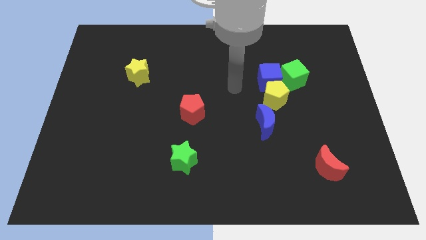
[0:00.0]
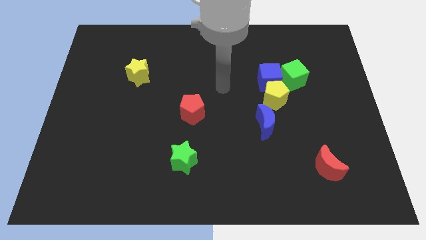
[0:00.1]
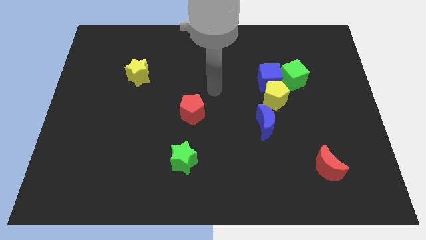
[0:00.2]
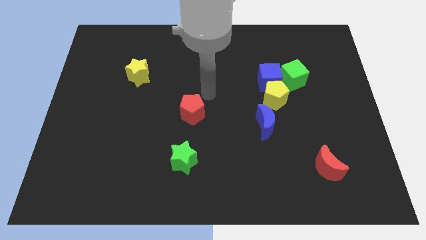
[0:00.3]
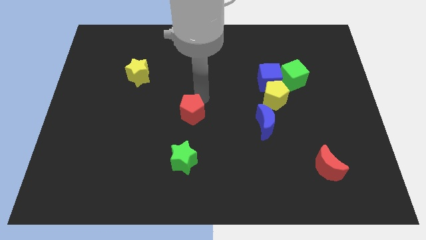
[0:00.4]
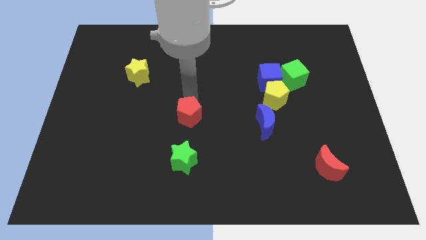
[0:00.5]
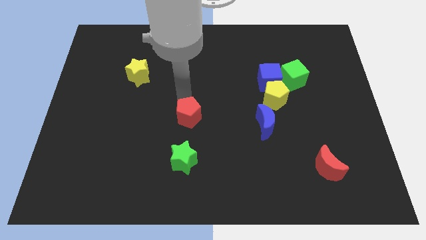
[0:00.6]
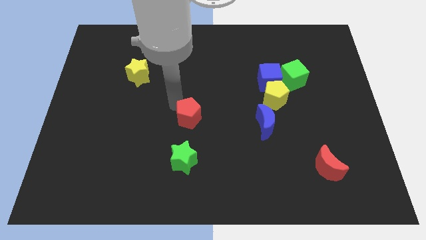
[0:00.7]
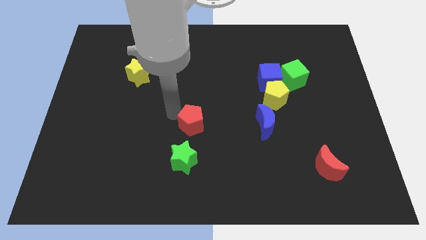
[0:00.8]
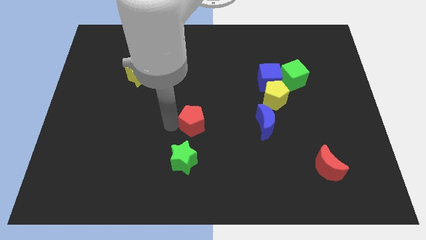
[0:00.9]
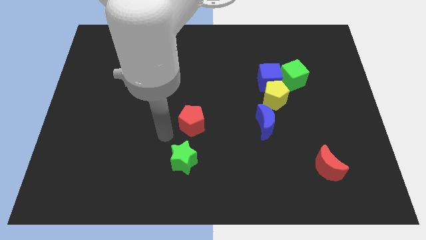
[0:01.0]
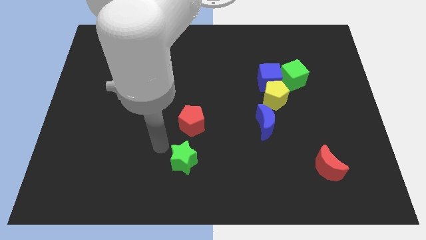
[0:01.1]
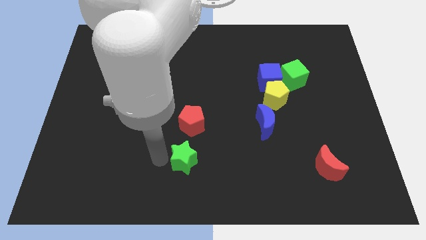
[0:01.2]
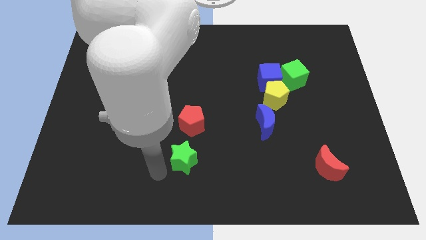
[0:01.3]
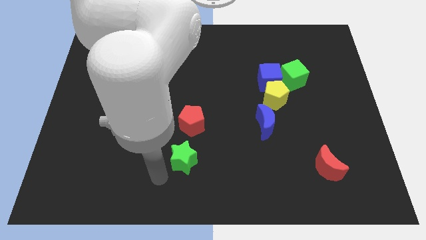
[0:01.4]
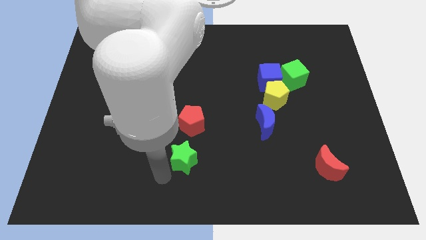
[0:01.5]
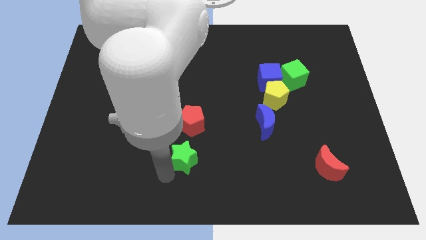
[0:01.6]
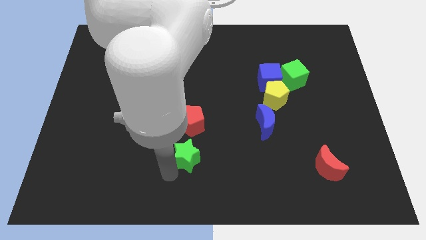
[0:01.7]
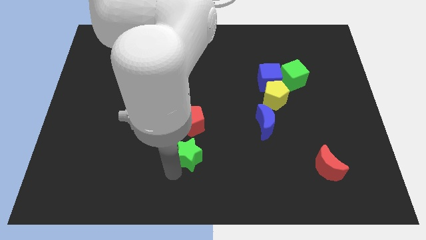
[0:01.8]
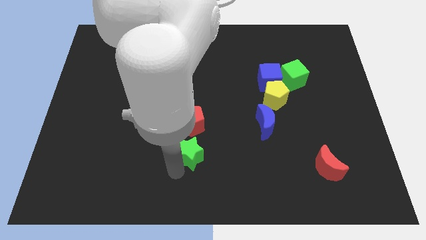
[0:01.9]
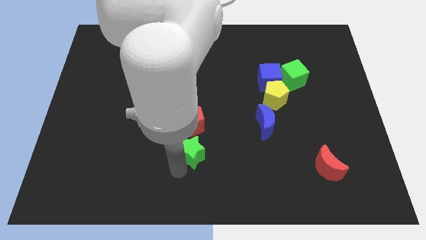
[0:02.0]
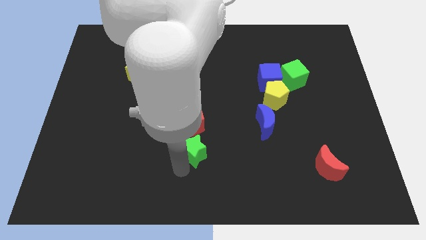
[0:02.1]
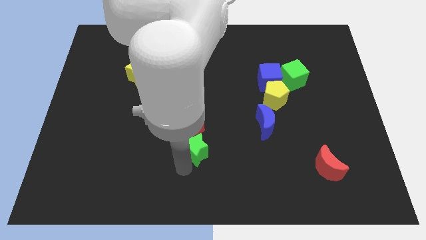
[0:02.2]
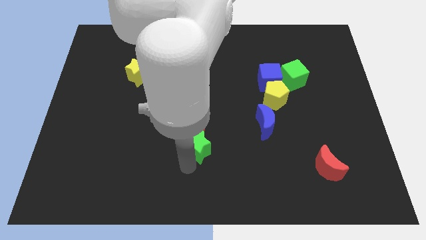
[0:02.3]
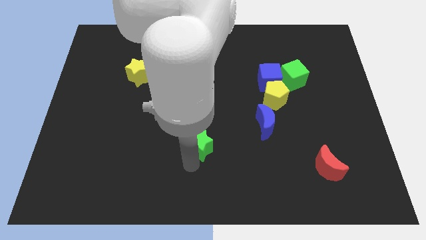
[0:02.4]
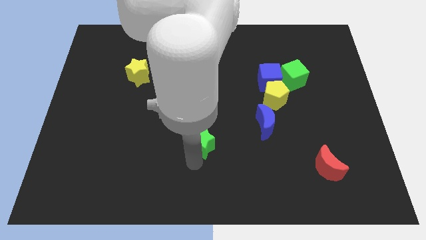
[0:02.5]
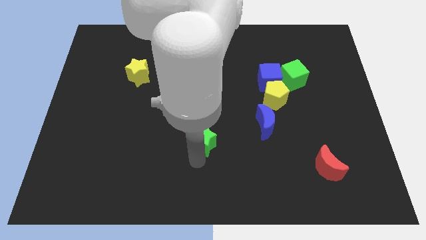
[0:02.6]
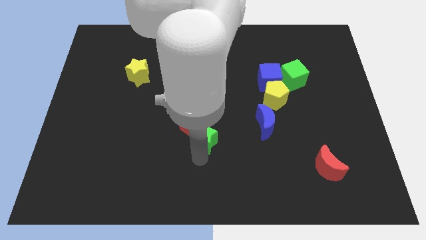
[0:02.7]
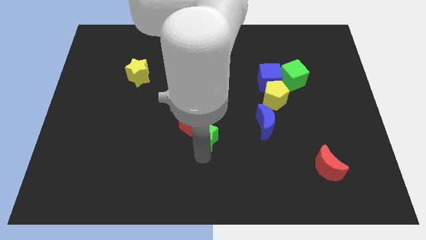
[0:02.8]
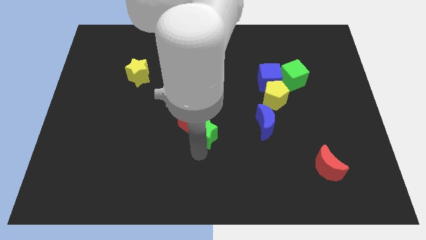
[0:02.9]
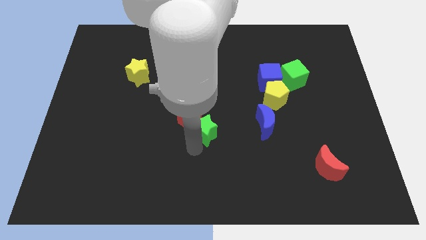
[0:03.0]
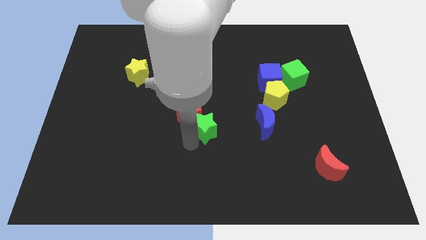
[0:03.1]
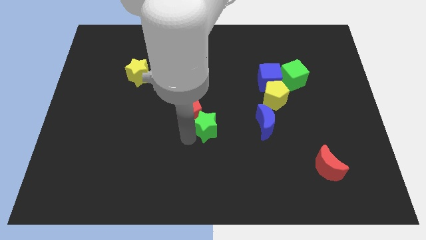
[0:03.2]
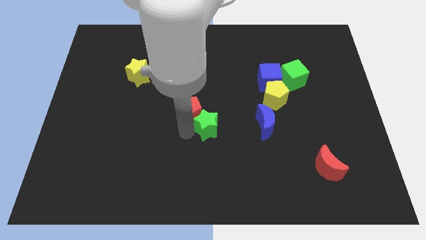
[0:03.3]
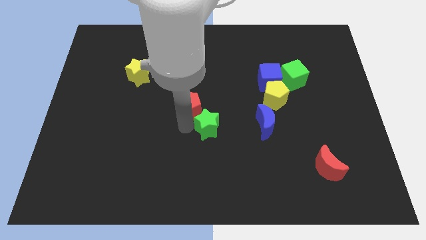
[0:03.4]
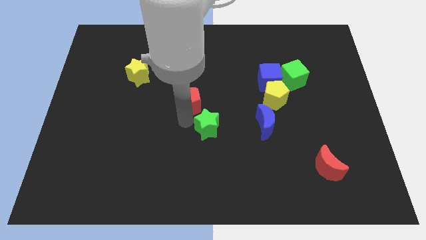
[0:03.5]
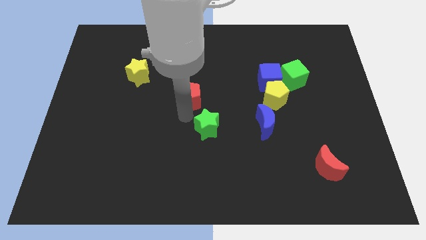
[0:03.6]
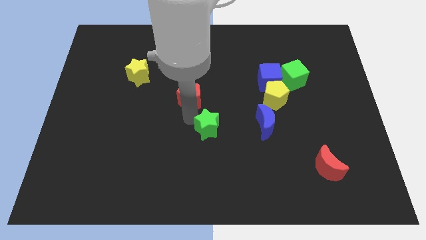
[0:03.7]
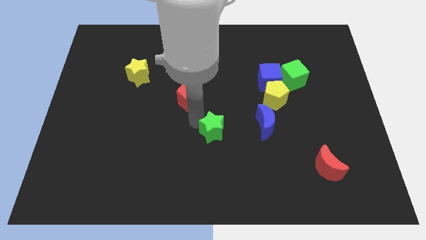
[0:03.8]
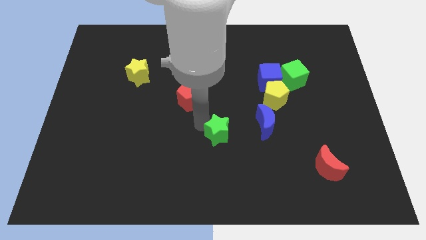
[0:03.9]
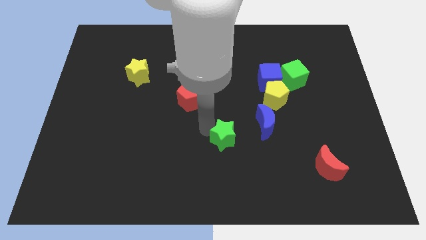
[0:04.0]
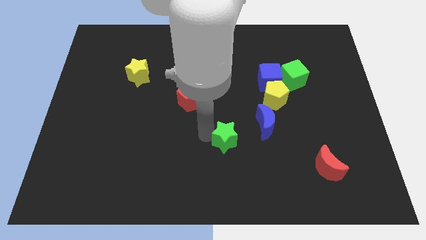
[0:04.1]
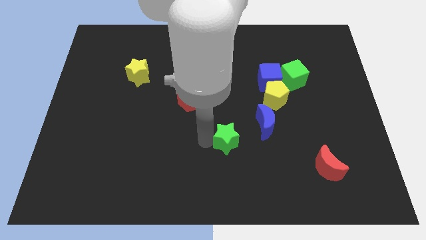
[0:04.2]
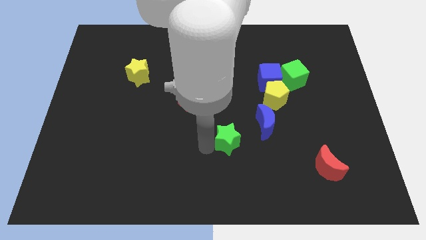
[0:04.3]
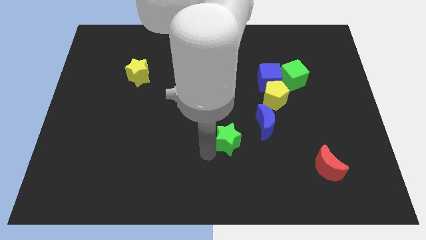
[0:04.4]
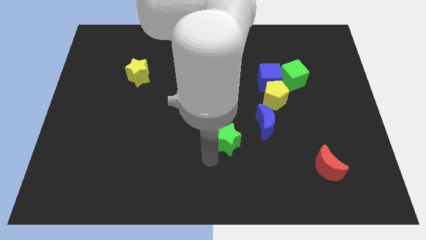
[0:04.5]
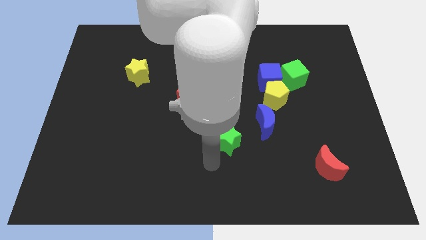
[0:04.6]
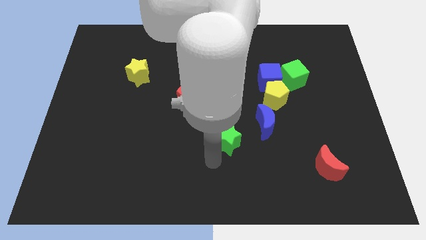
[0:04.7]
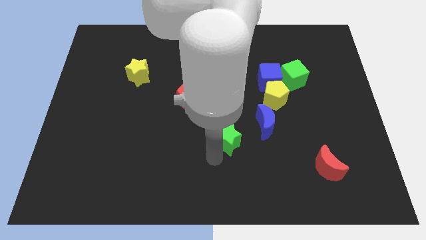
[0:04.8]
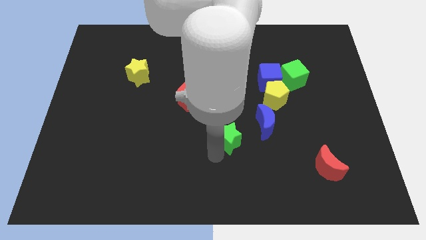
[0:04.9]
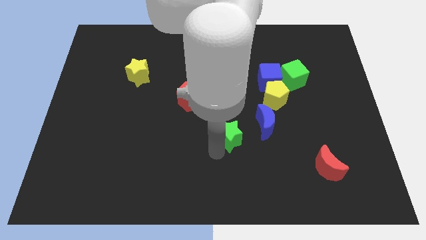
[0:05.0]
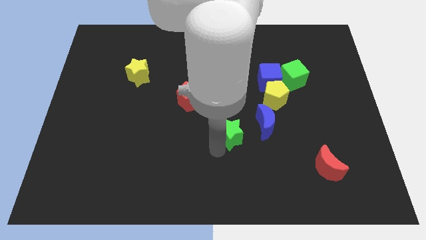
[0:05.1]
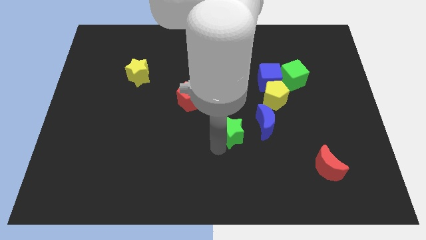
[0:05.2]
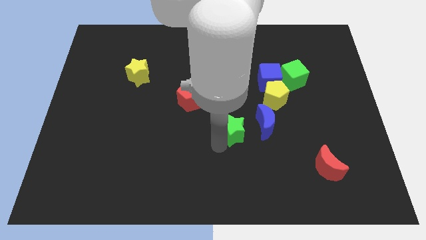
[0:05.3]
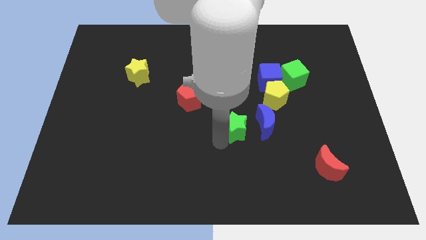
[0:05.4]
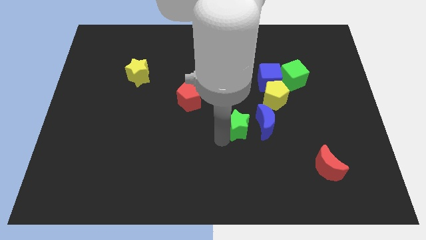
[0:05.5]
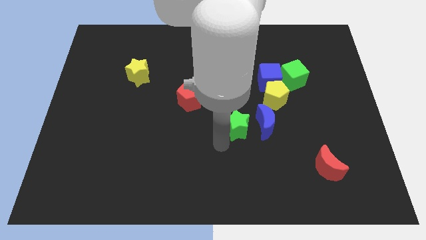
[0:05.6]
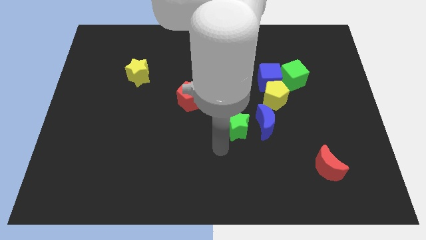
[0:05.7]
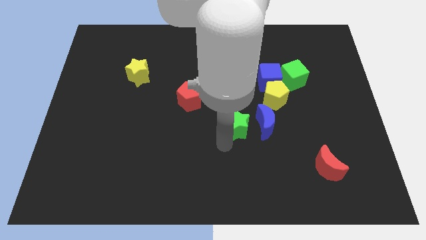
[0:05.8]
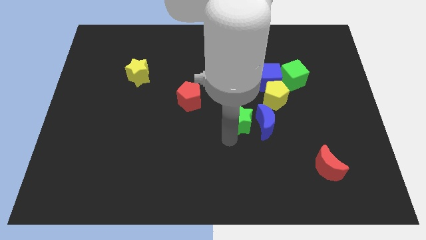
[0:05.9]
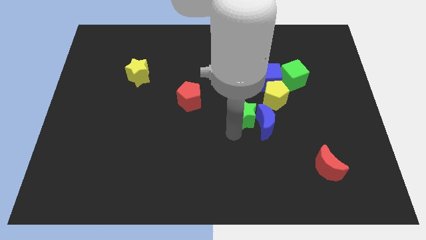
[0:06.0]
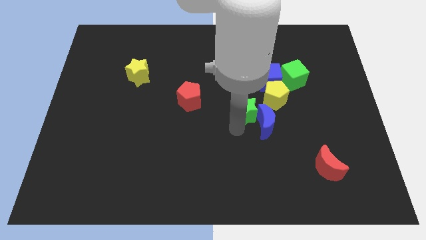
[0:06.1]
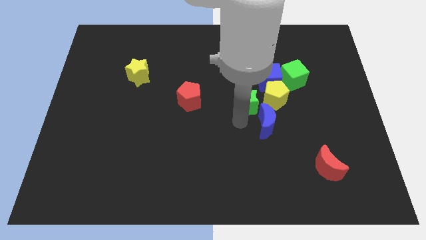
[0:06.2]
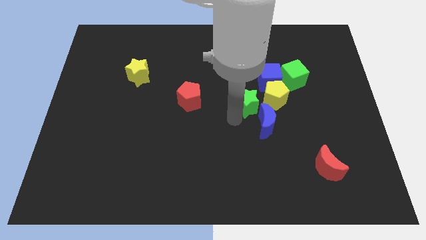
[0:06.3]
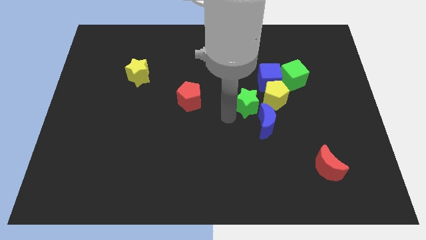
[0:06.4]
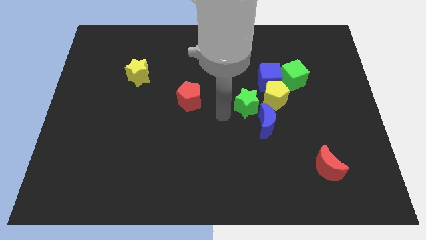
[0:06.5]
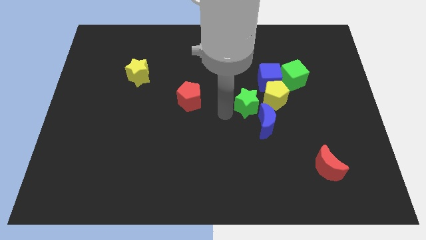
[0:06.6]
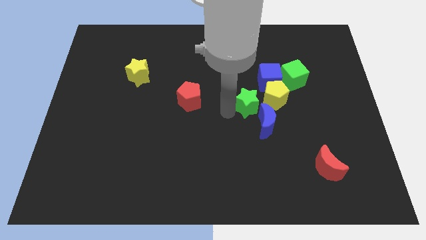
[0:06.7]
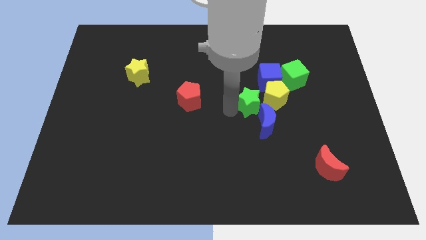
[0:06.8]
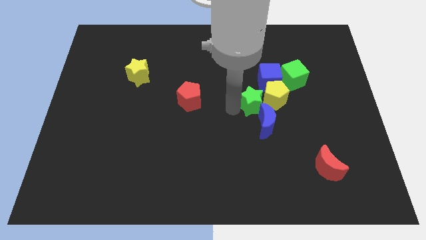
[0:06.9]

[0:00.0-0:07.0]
move the green star close to the yellow pentagon
